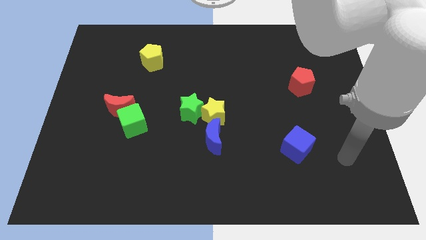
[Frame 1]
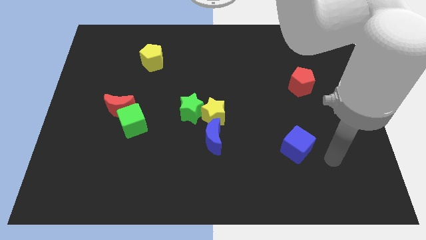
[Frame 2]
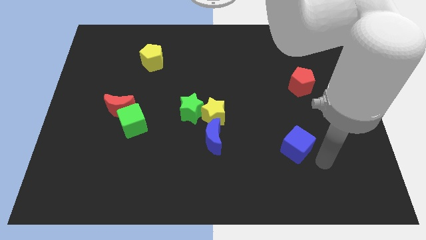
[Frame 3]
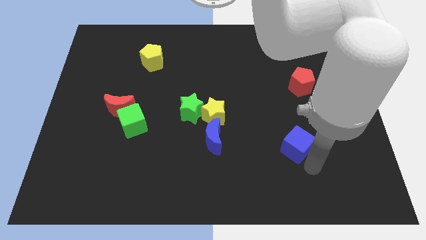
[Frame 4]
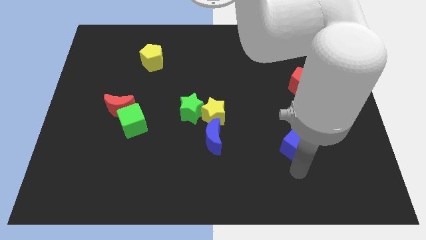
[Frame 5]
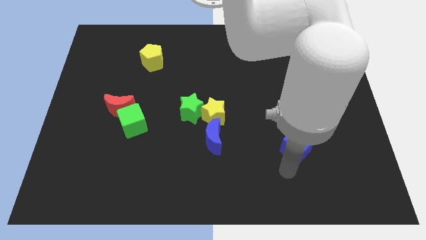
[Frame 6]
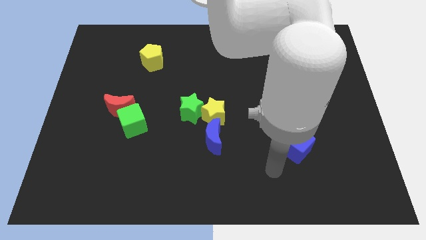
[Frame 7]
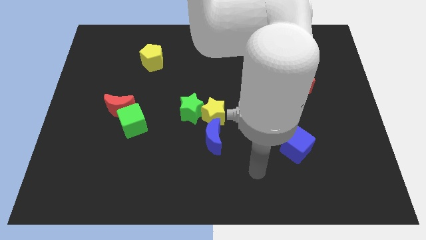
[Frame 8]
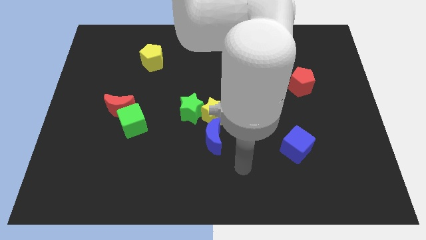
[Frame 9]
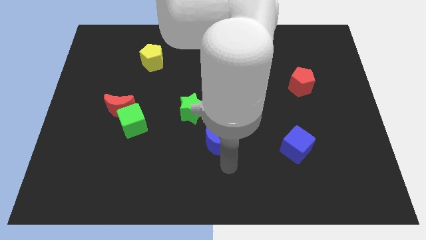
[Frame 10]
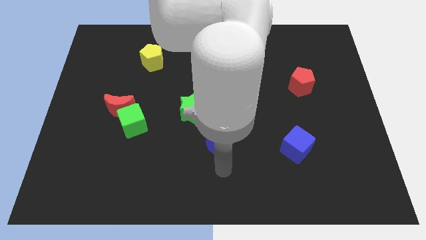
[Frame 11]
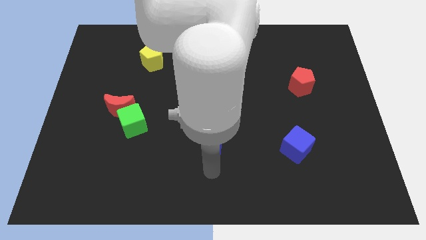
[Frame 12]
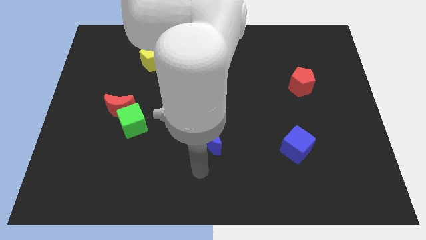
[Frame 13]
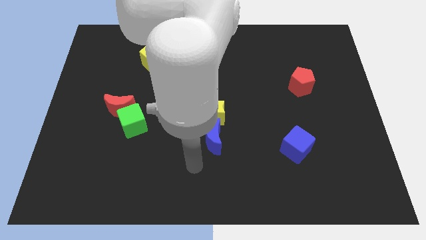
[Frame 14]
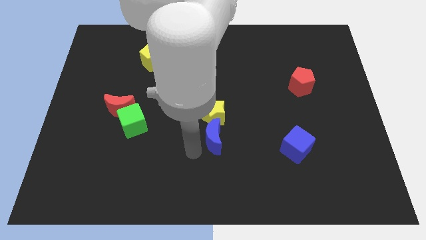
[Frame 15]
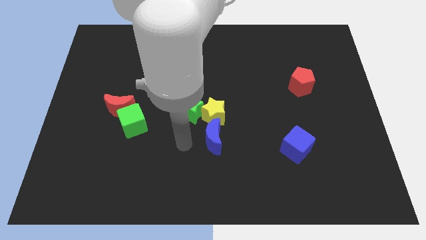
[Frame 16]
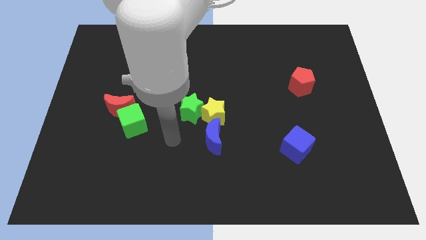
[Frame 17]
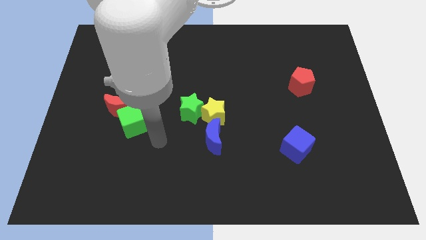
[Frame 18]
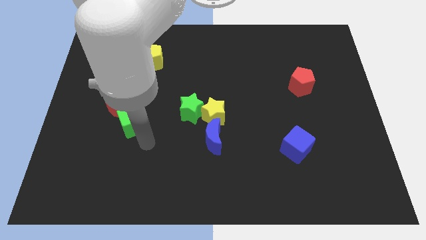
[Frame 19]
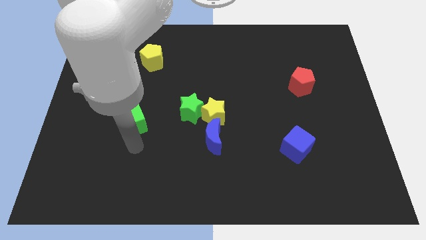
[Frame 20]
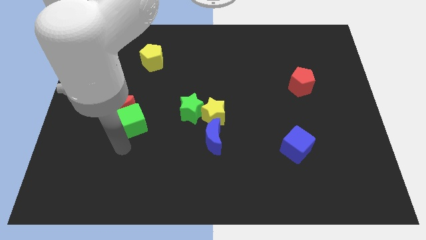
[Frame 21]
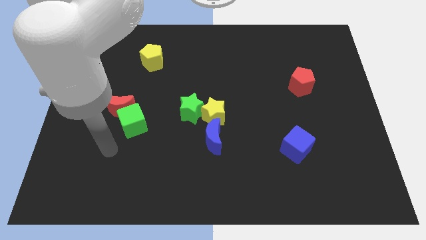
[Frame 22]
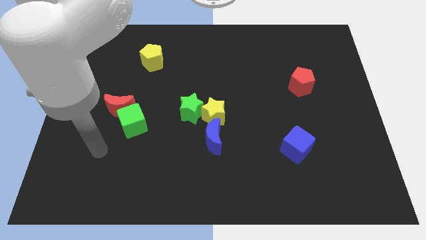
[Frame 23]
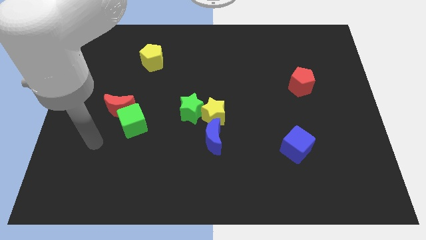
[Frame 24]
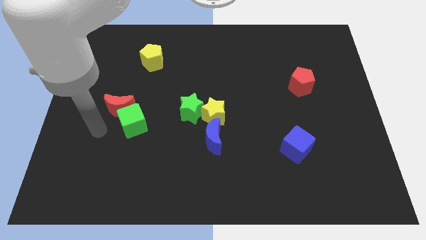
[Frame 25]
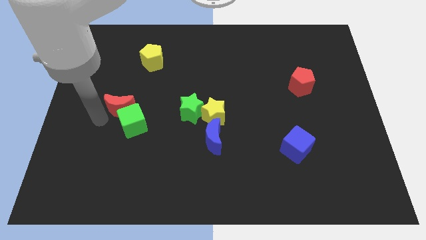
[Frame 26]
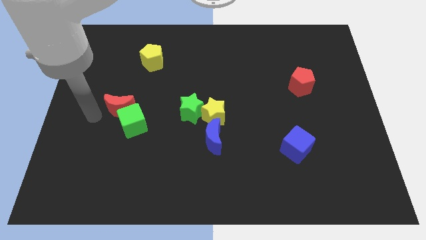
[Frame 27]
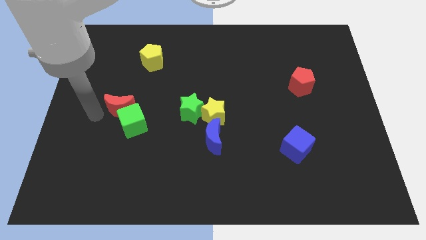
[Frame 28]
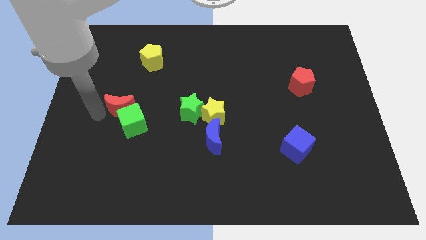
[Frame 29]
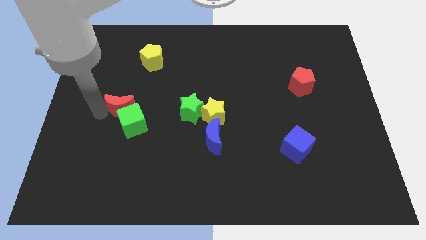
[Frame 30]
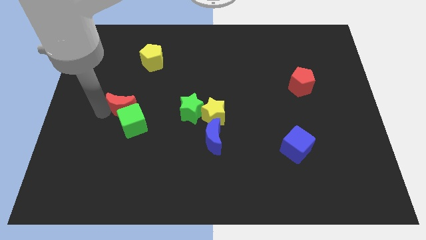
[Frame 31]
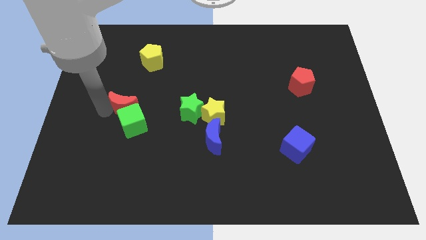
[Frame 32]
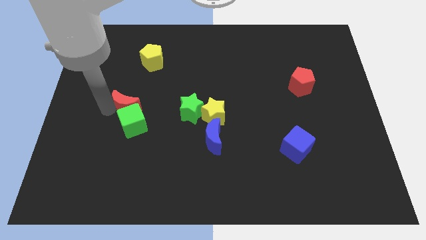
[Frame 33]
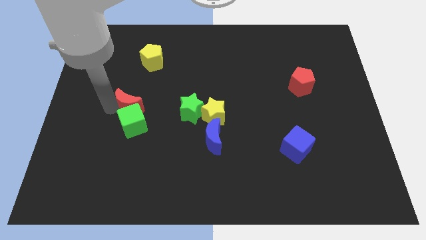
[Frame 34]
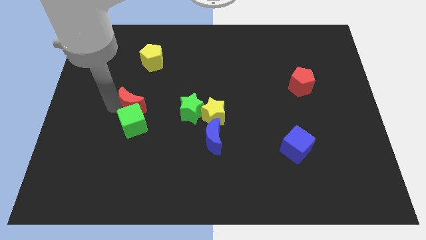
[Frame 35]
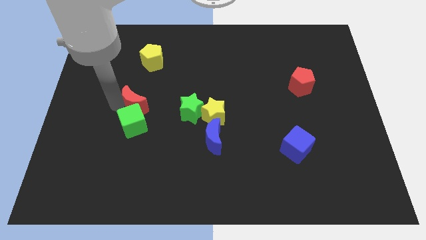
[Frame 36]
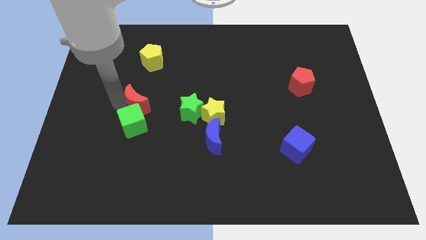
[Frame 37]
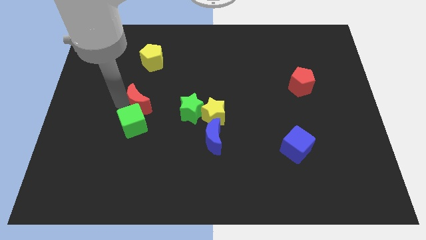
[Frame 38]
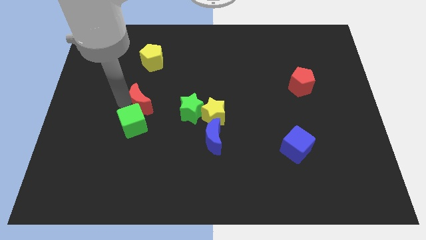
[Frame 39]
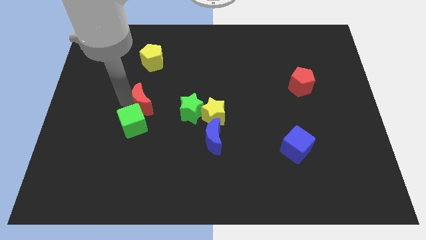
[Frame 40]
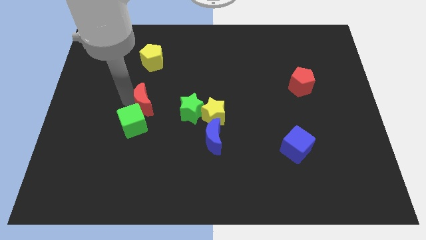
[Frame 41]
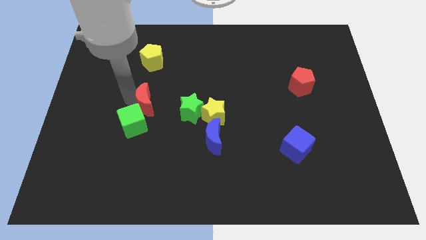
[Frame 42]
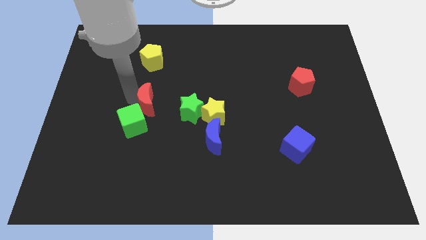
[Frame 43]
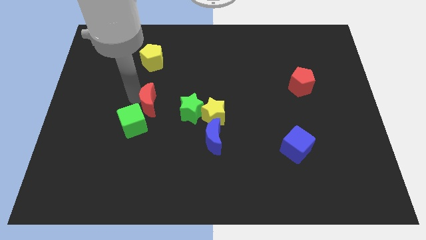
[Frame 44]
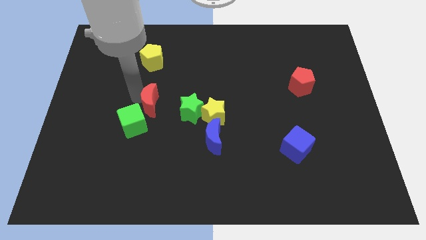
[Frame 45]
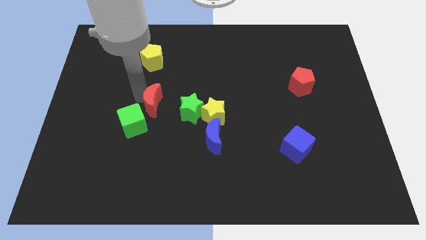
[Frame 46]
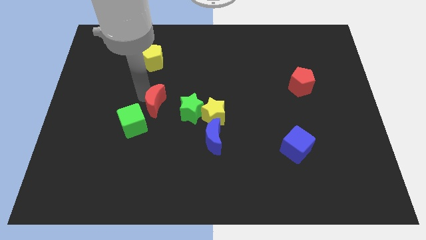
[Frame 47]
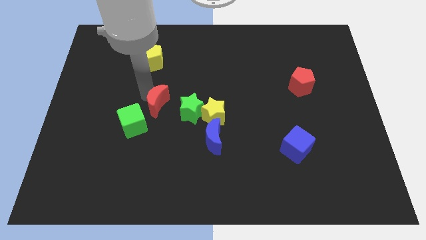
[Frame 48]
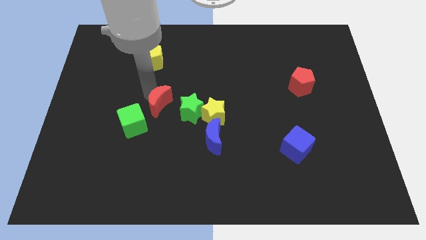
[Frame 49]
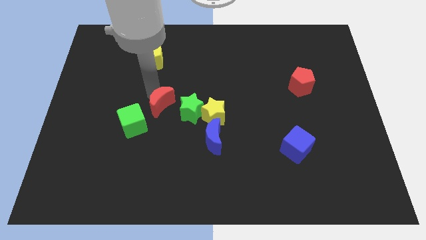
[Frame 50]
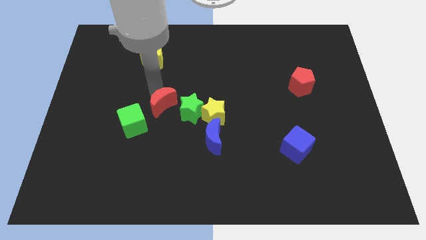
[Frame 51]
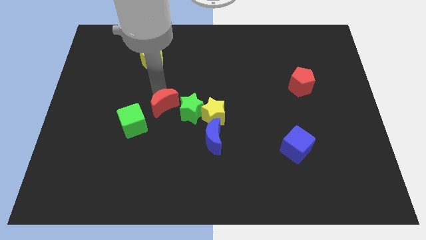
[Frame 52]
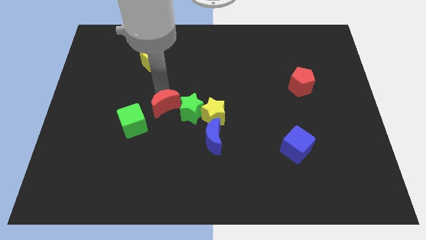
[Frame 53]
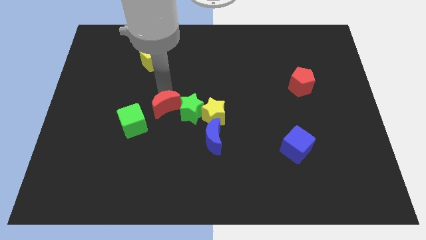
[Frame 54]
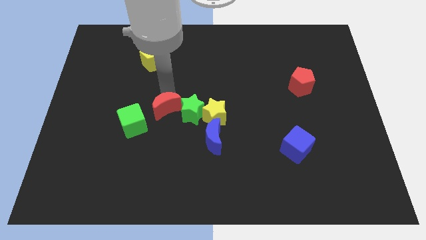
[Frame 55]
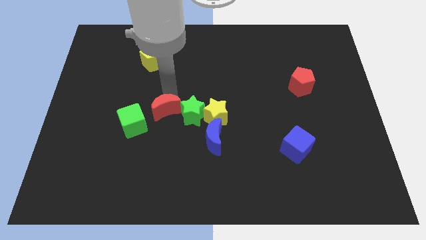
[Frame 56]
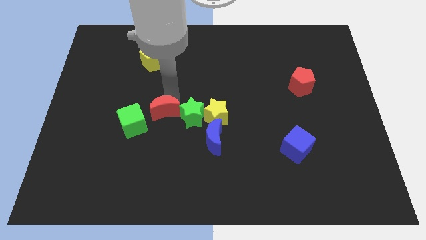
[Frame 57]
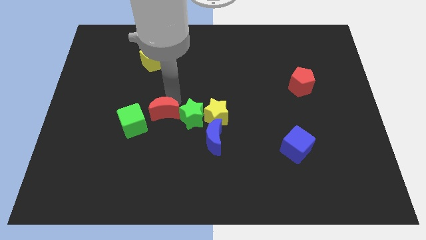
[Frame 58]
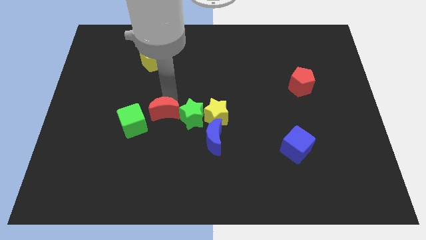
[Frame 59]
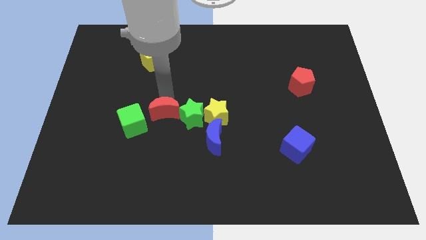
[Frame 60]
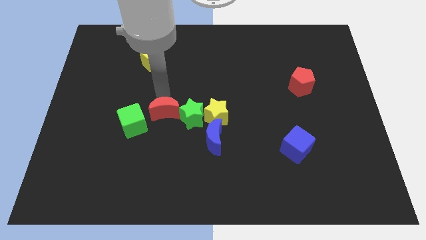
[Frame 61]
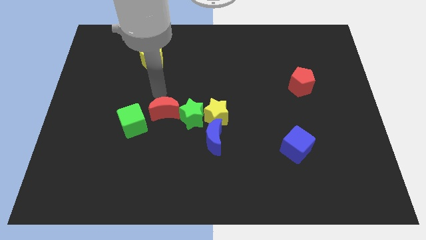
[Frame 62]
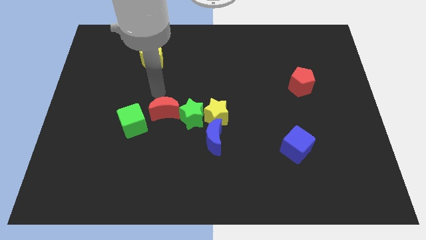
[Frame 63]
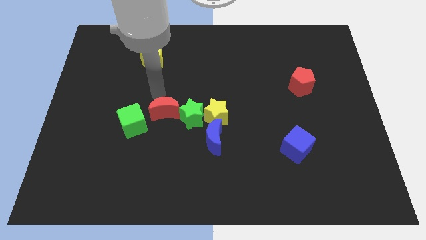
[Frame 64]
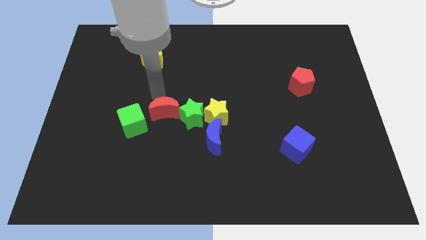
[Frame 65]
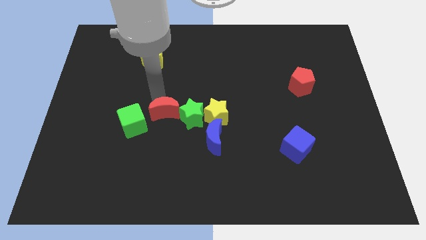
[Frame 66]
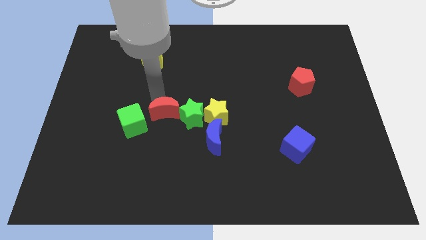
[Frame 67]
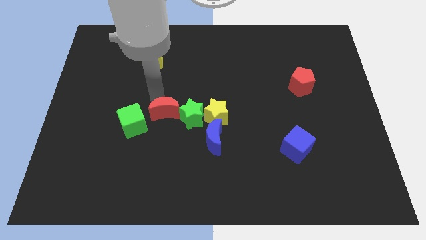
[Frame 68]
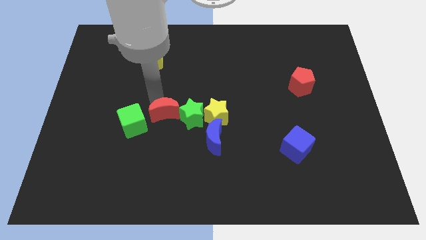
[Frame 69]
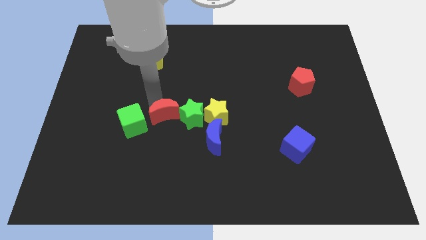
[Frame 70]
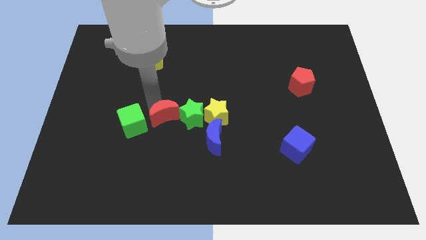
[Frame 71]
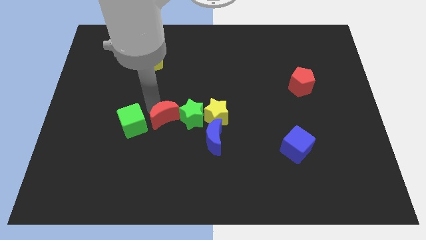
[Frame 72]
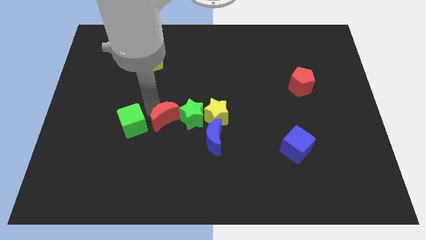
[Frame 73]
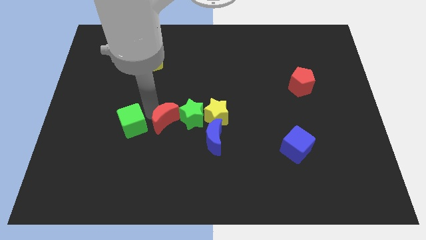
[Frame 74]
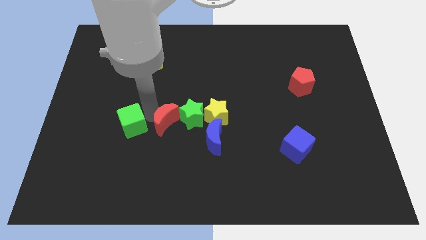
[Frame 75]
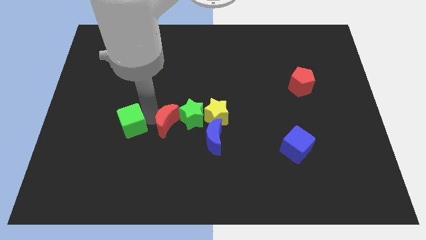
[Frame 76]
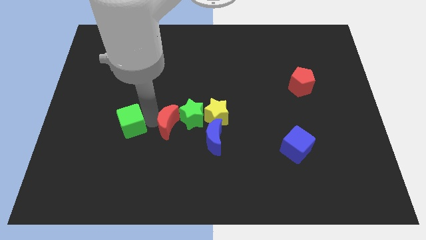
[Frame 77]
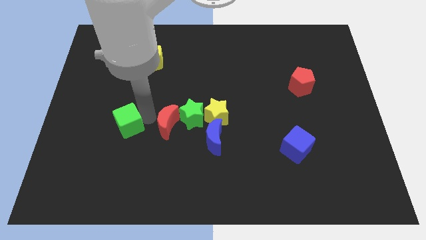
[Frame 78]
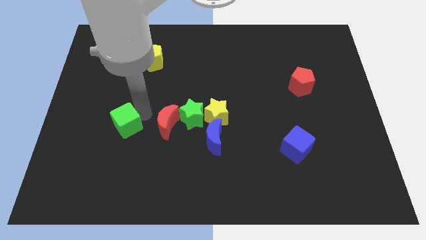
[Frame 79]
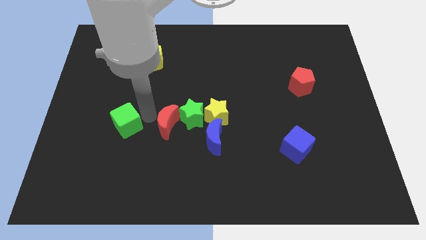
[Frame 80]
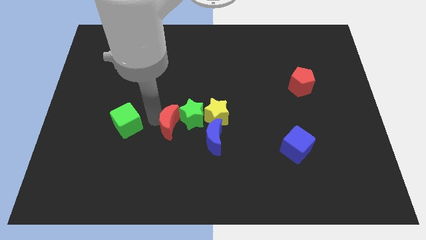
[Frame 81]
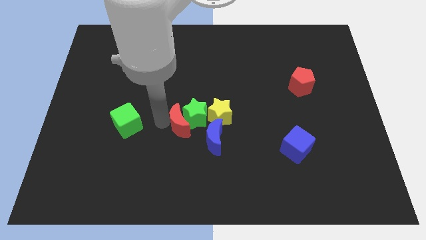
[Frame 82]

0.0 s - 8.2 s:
put the red moon to the bottom left side of the yellow star
